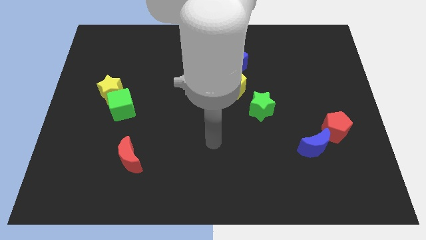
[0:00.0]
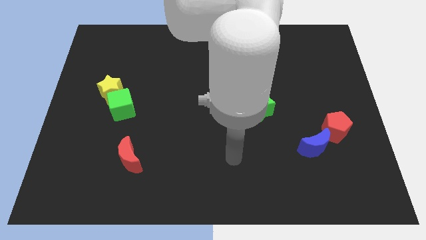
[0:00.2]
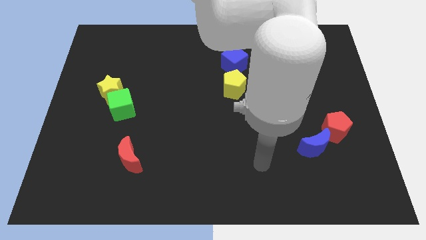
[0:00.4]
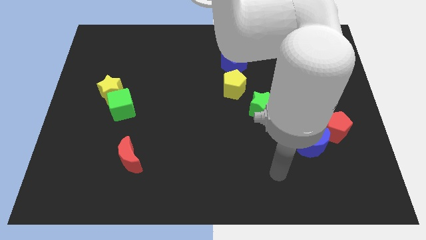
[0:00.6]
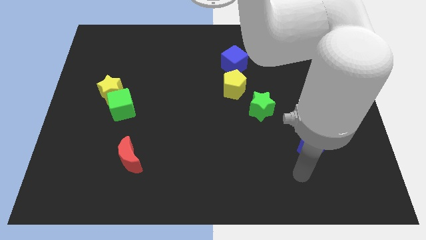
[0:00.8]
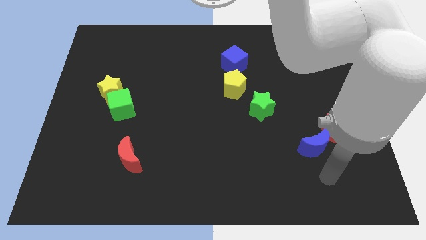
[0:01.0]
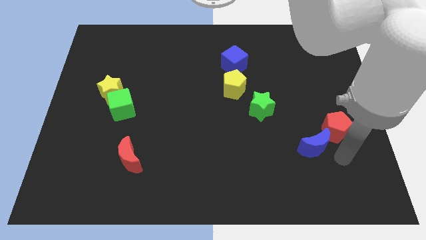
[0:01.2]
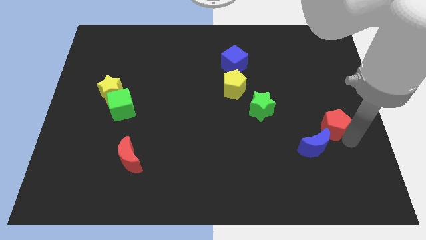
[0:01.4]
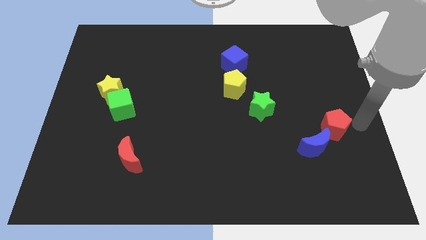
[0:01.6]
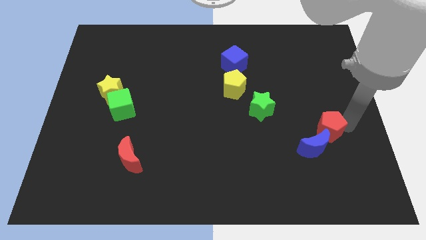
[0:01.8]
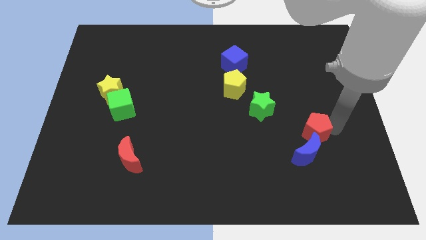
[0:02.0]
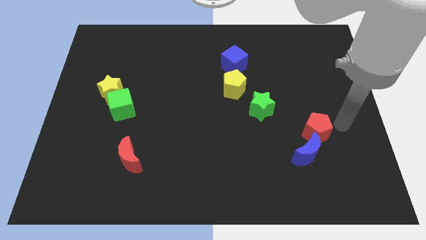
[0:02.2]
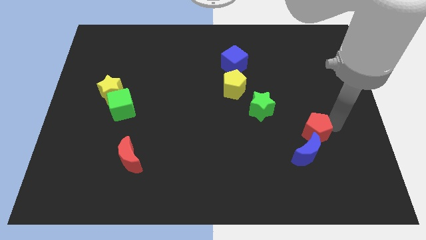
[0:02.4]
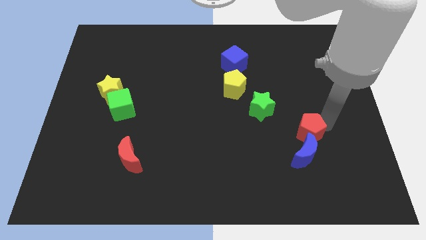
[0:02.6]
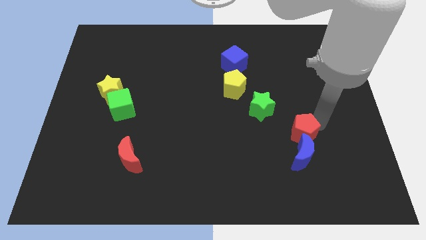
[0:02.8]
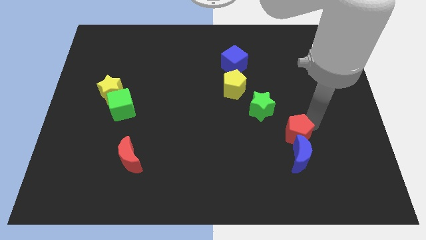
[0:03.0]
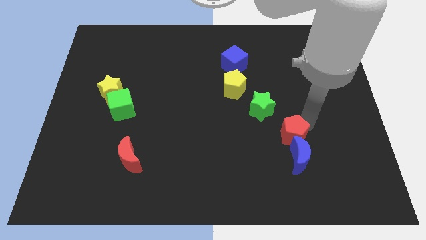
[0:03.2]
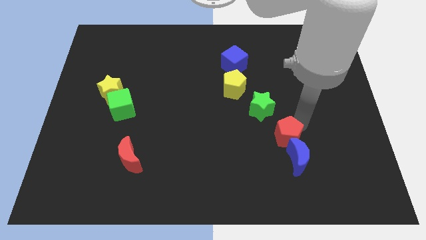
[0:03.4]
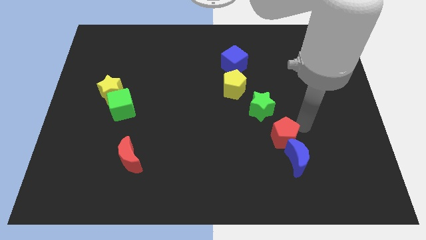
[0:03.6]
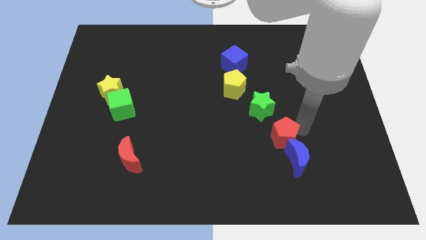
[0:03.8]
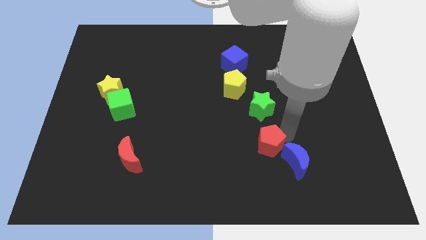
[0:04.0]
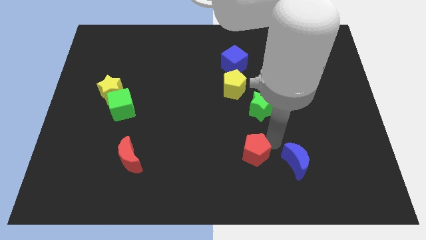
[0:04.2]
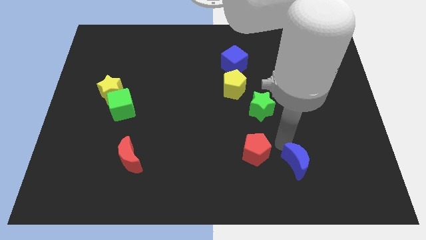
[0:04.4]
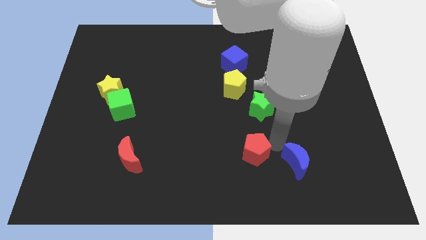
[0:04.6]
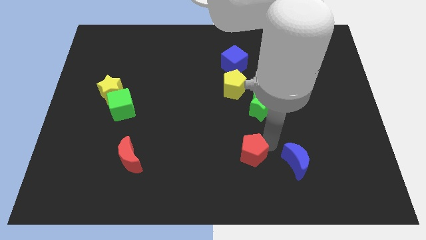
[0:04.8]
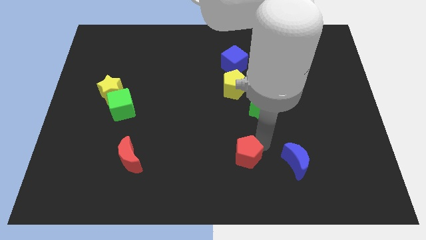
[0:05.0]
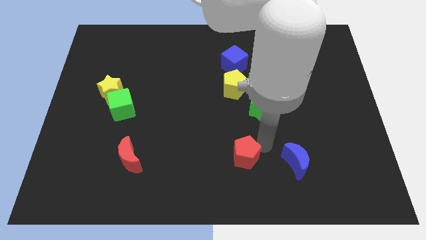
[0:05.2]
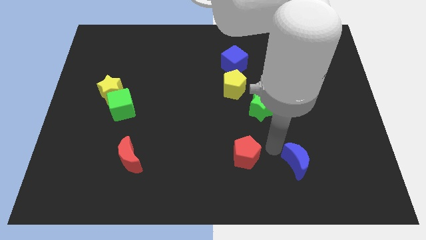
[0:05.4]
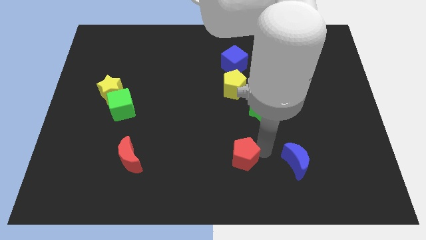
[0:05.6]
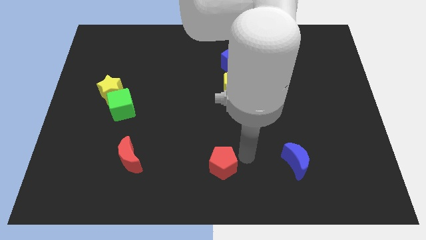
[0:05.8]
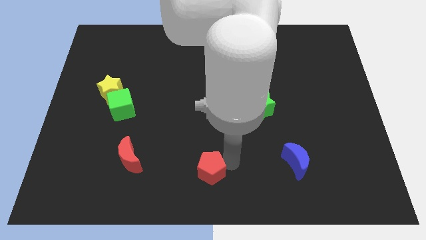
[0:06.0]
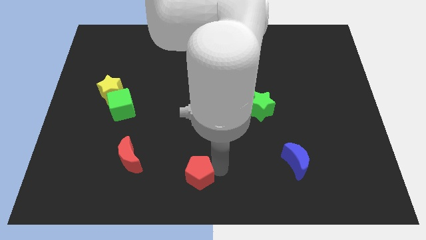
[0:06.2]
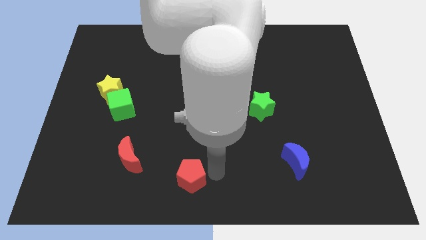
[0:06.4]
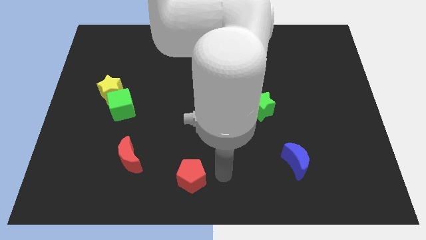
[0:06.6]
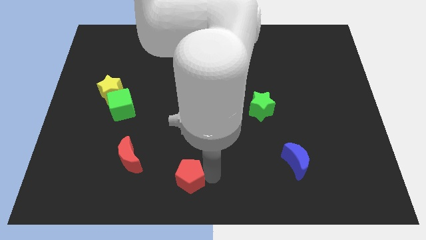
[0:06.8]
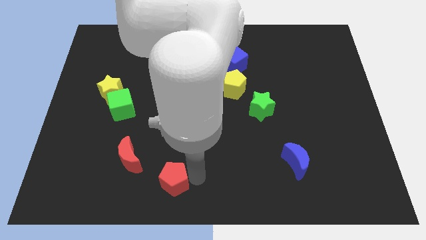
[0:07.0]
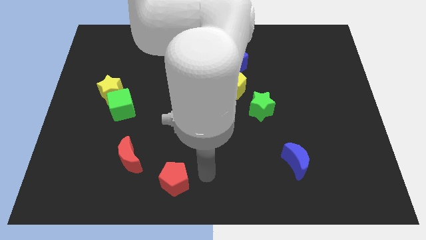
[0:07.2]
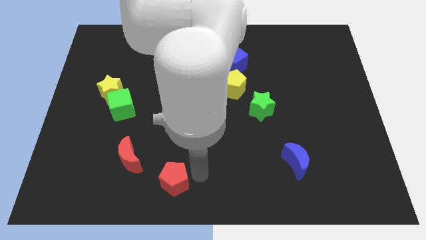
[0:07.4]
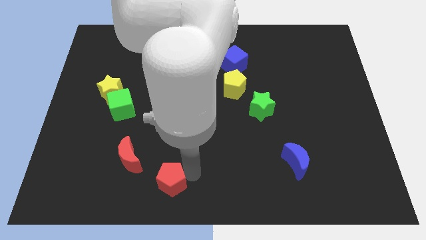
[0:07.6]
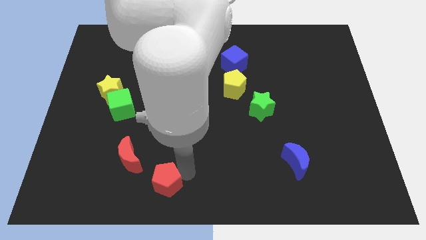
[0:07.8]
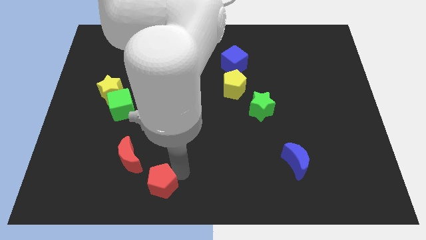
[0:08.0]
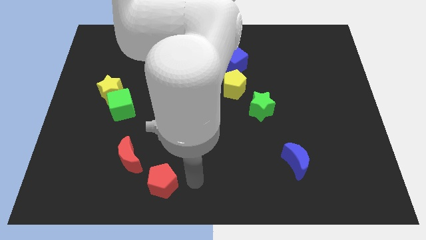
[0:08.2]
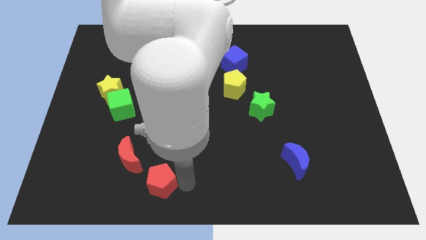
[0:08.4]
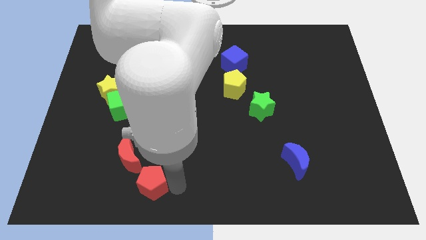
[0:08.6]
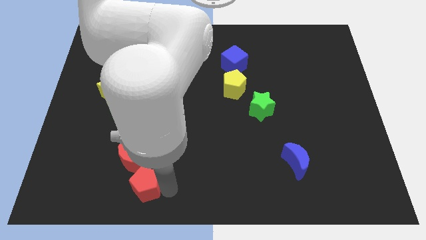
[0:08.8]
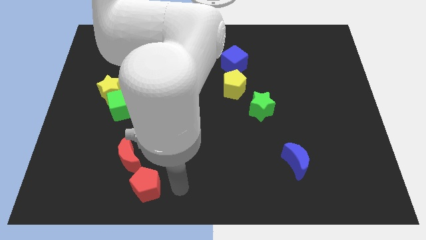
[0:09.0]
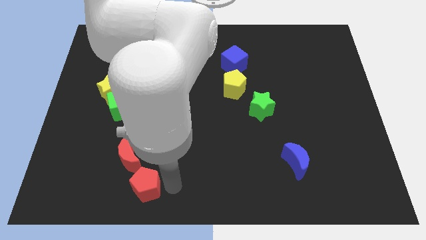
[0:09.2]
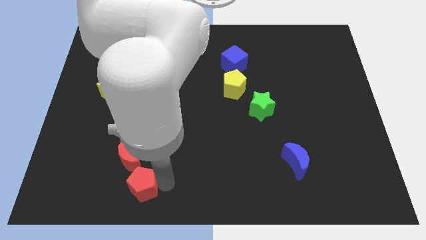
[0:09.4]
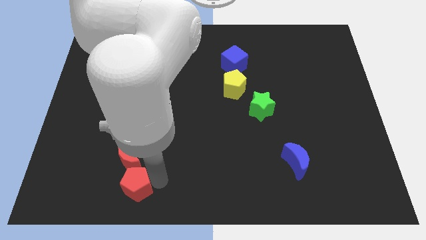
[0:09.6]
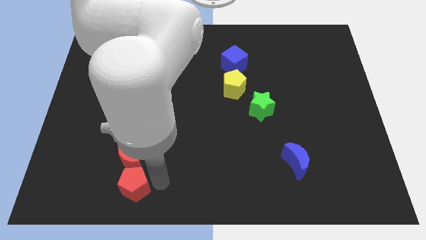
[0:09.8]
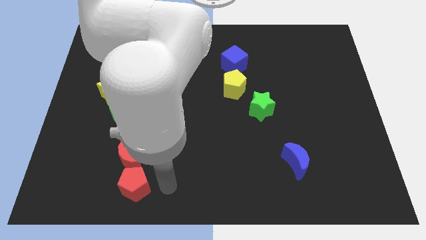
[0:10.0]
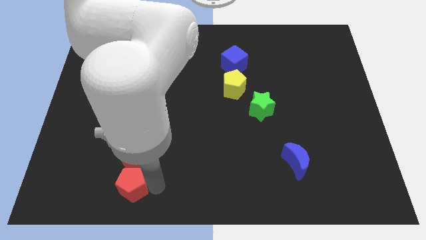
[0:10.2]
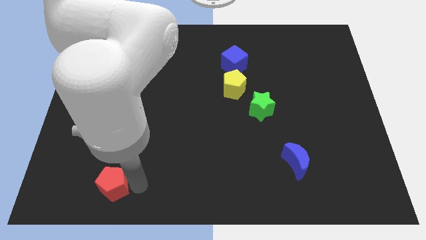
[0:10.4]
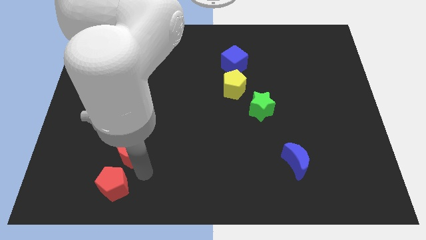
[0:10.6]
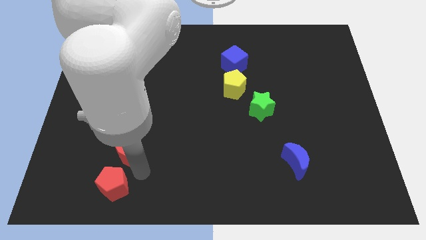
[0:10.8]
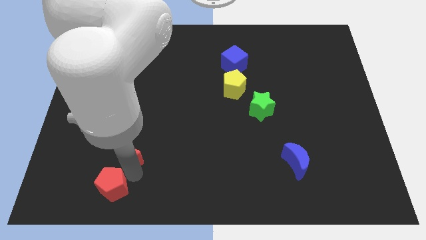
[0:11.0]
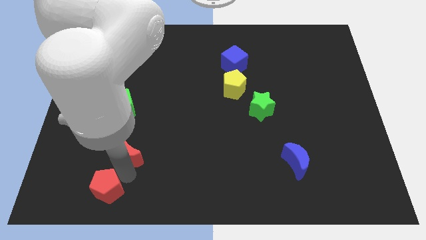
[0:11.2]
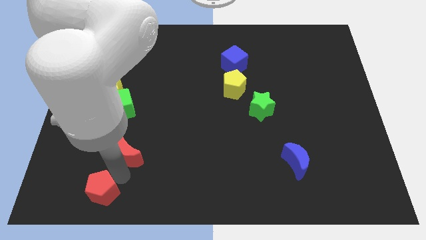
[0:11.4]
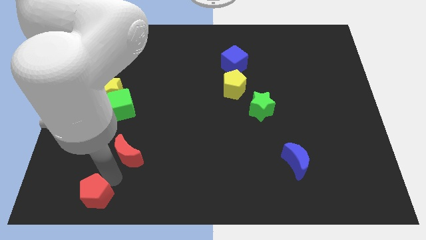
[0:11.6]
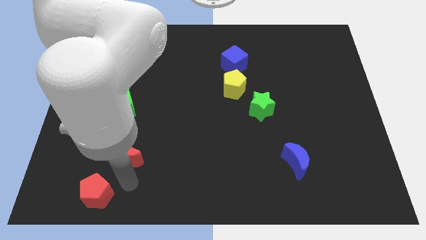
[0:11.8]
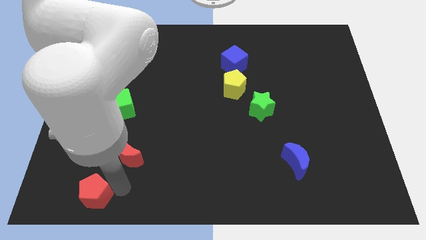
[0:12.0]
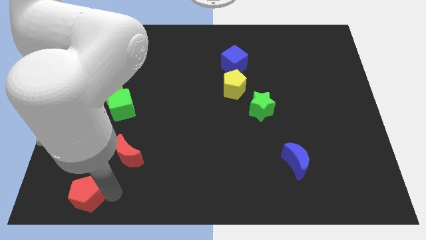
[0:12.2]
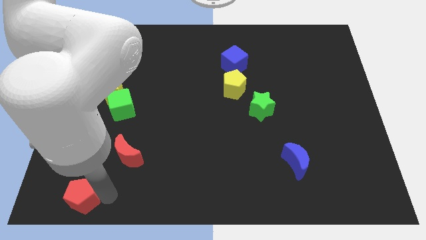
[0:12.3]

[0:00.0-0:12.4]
push the red pentagon to the bottom left of the board
